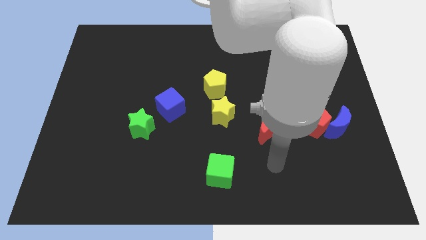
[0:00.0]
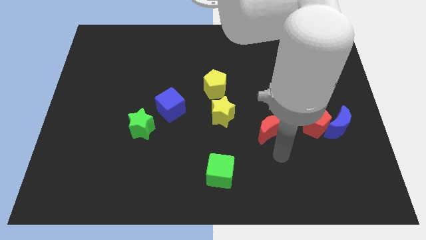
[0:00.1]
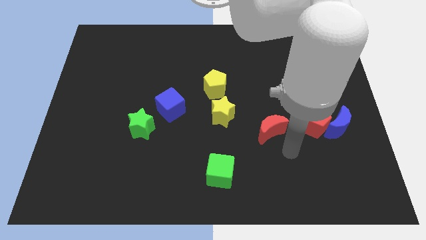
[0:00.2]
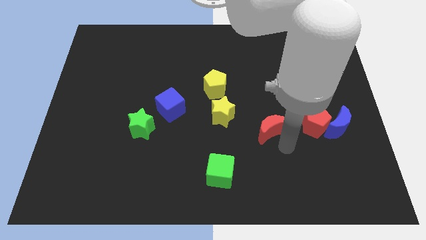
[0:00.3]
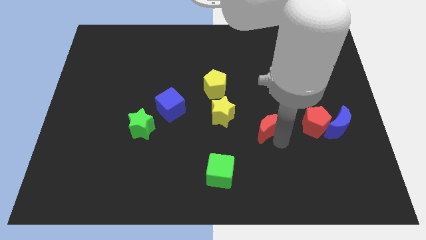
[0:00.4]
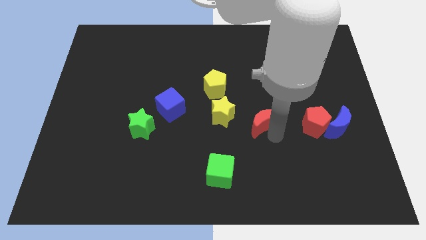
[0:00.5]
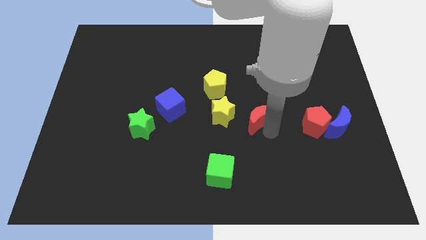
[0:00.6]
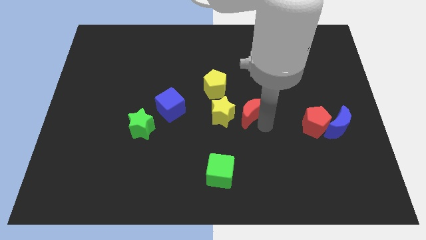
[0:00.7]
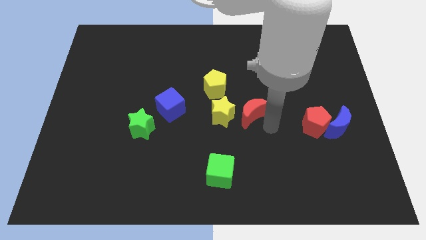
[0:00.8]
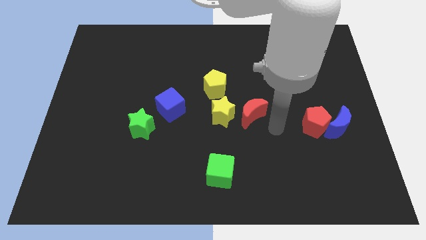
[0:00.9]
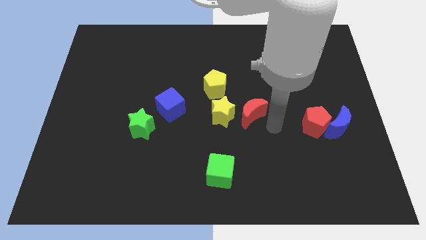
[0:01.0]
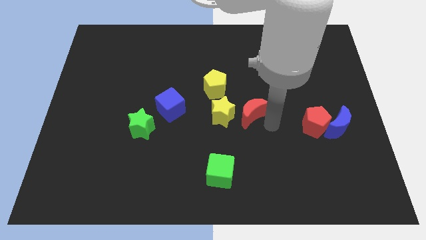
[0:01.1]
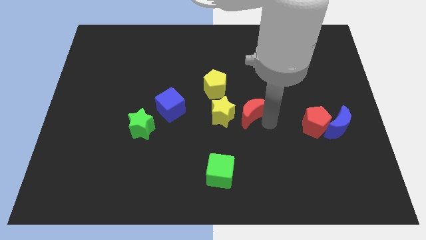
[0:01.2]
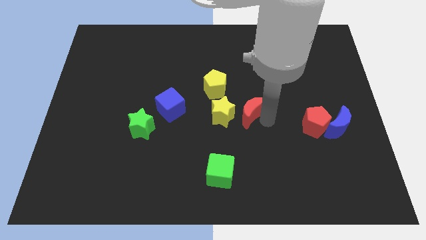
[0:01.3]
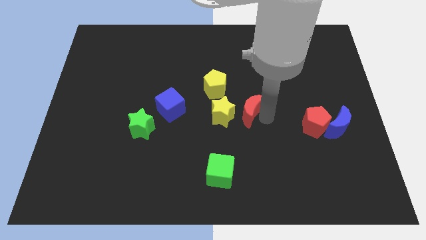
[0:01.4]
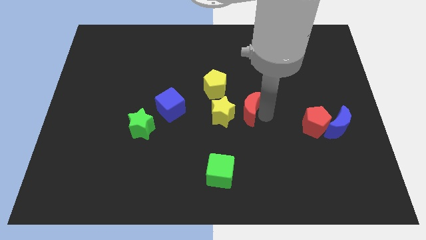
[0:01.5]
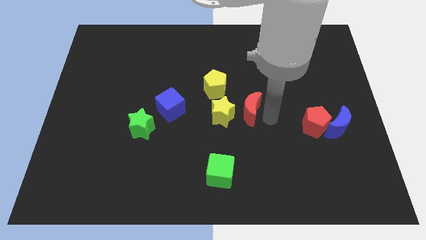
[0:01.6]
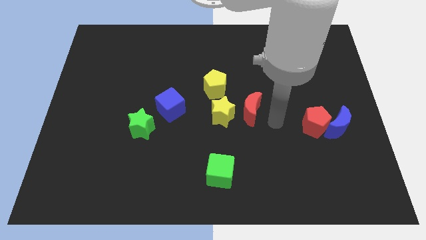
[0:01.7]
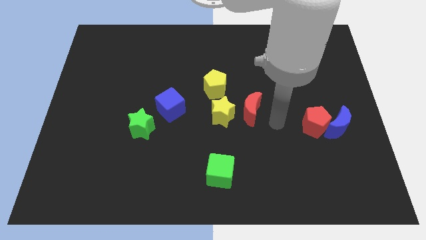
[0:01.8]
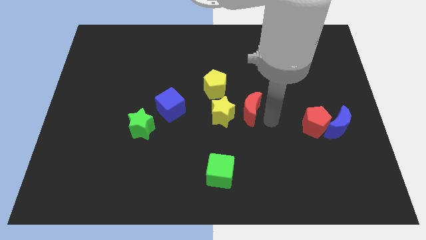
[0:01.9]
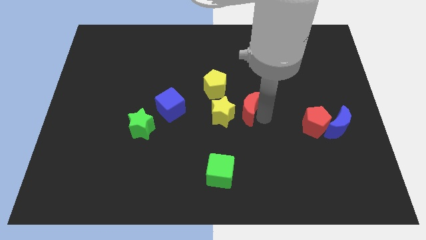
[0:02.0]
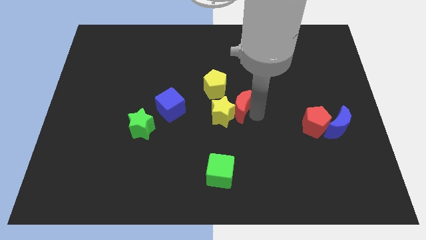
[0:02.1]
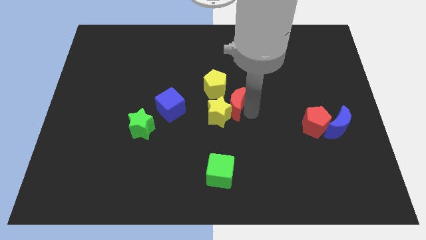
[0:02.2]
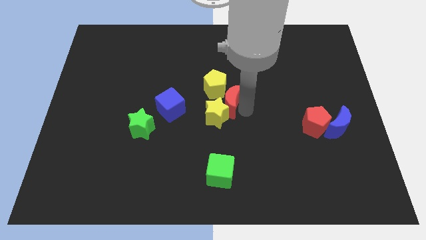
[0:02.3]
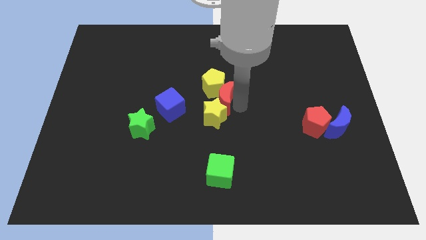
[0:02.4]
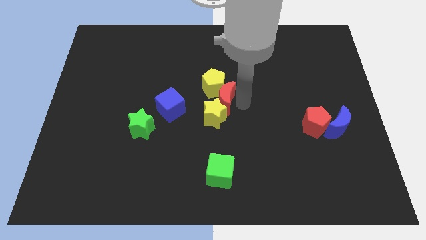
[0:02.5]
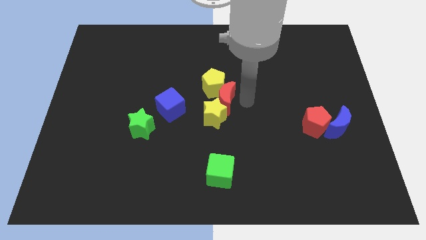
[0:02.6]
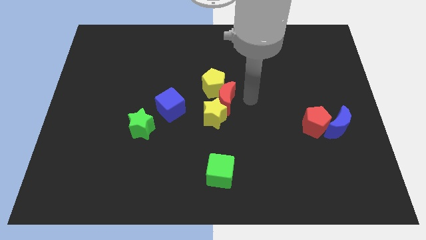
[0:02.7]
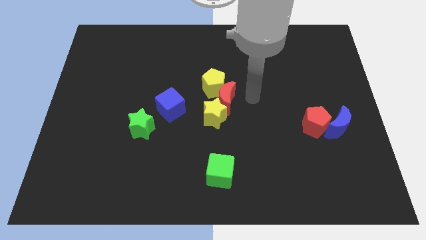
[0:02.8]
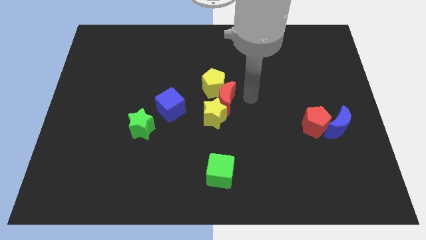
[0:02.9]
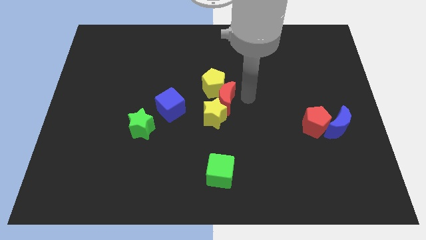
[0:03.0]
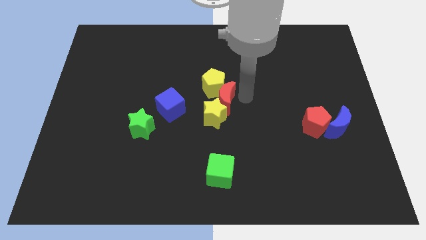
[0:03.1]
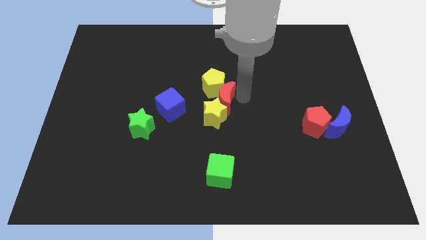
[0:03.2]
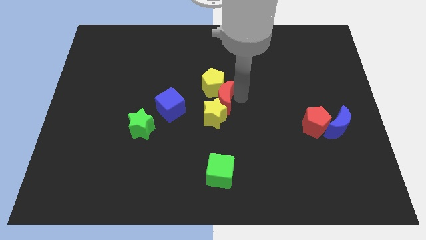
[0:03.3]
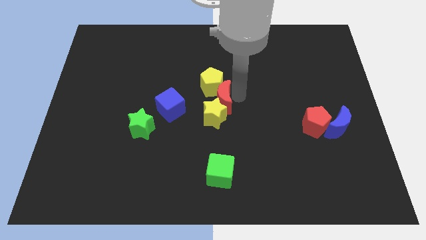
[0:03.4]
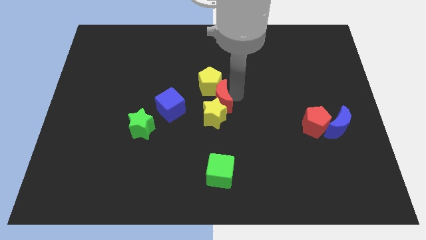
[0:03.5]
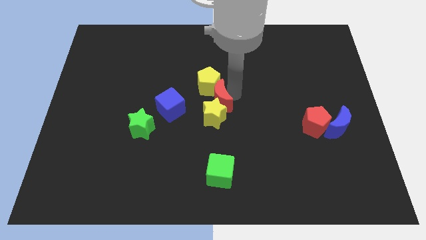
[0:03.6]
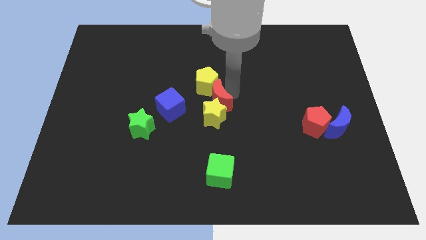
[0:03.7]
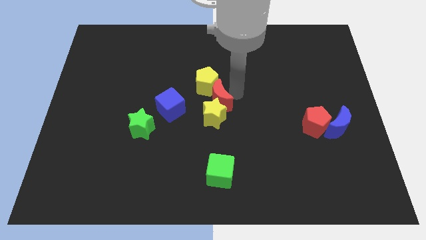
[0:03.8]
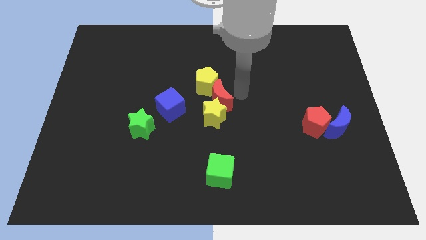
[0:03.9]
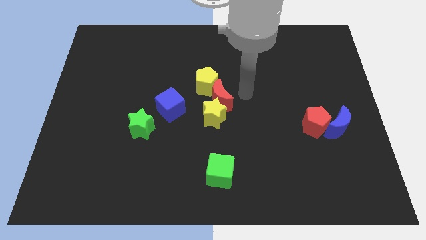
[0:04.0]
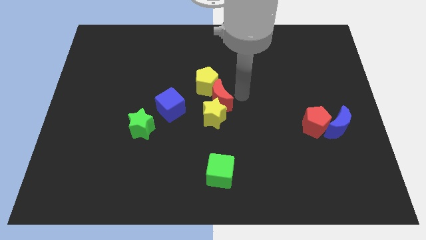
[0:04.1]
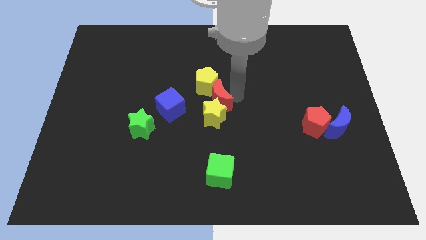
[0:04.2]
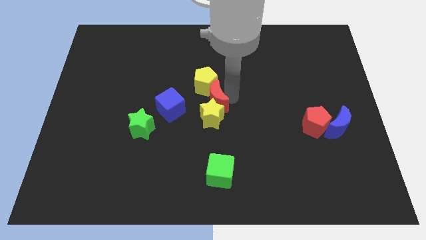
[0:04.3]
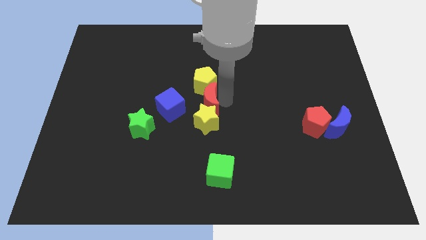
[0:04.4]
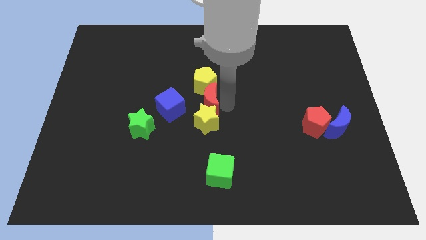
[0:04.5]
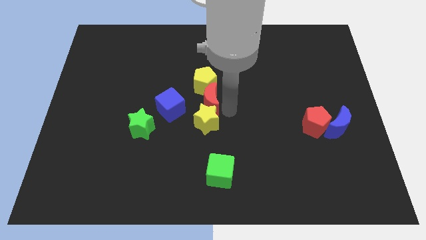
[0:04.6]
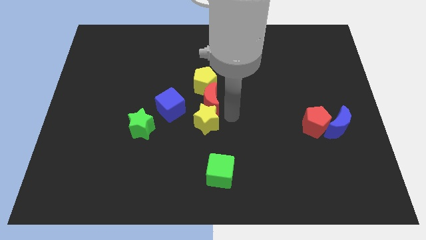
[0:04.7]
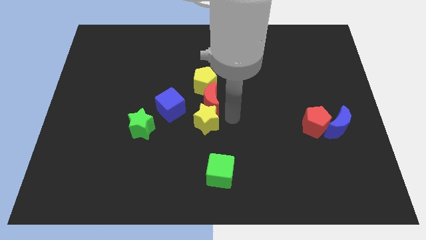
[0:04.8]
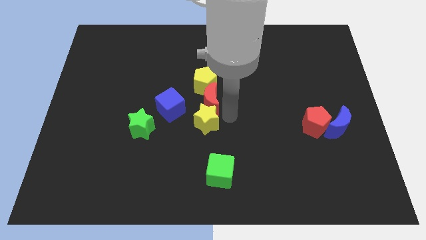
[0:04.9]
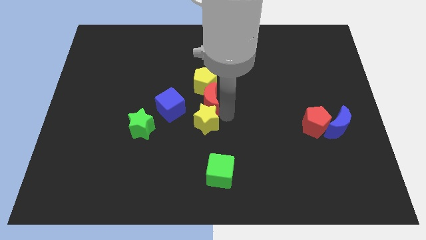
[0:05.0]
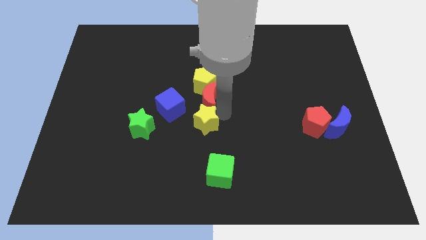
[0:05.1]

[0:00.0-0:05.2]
put the red moon to the top right side of the blue cube

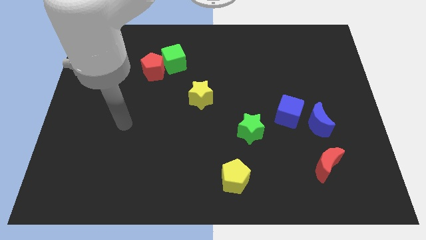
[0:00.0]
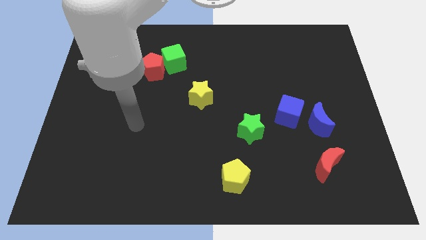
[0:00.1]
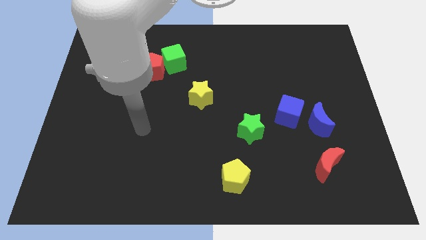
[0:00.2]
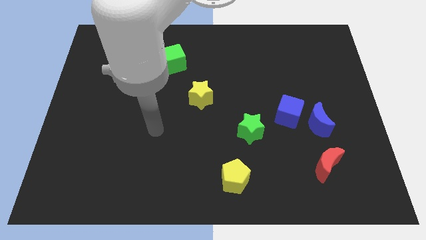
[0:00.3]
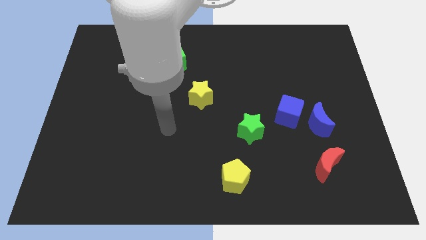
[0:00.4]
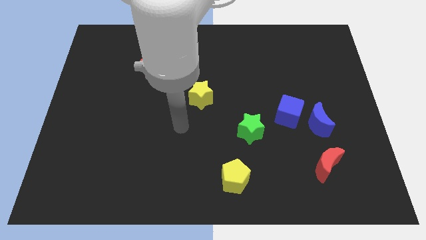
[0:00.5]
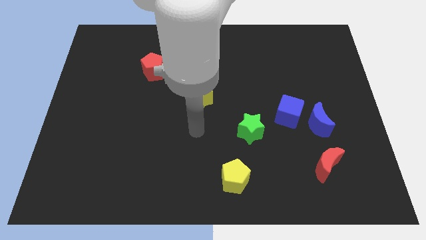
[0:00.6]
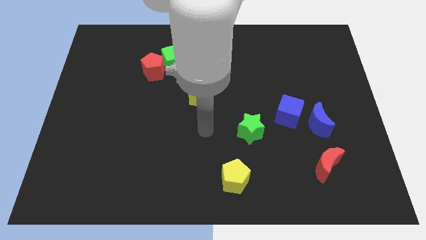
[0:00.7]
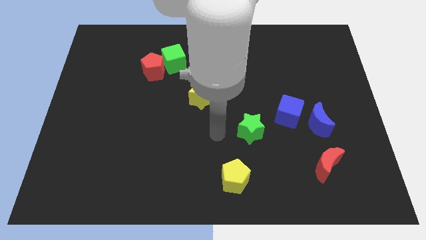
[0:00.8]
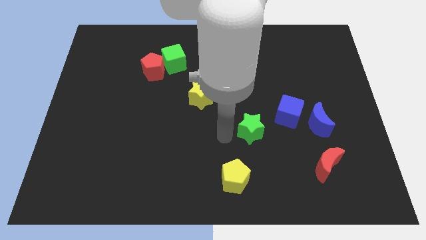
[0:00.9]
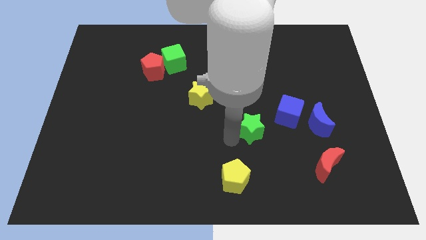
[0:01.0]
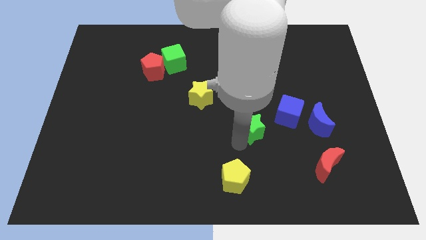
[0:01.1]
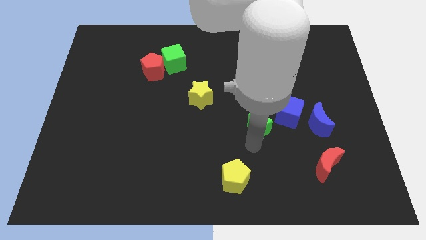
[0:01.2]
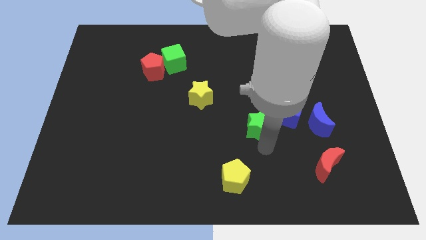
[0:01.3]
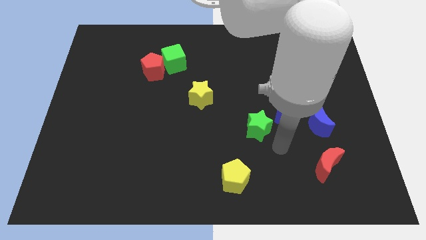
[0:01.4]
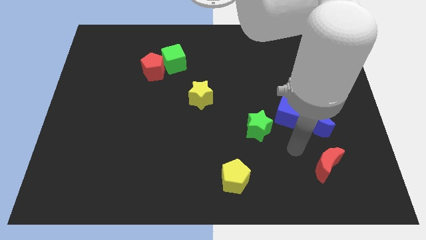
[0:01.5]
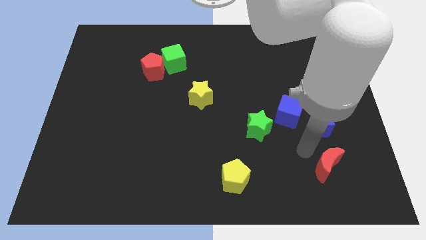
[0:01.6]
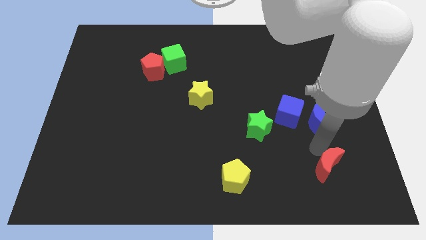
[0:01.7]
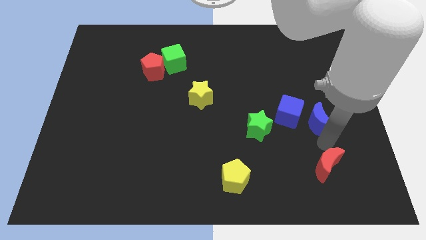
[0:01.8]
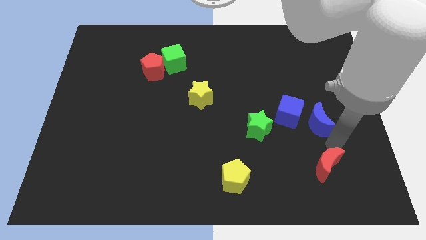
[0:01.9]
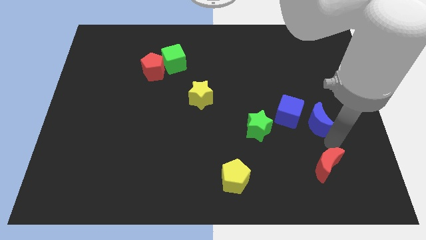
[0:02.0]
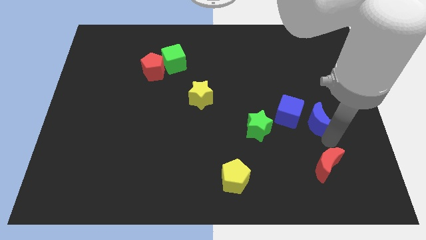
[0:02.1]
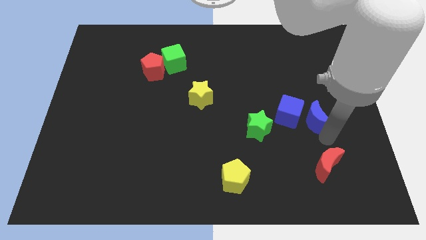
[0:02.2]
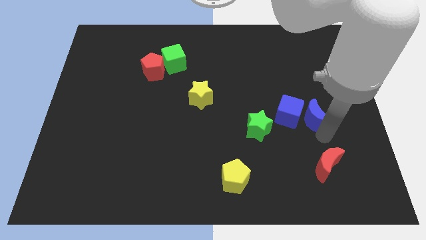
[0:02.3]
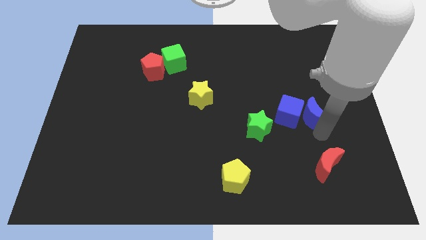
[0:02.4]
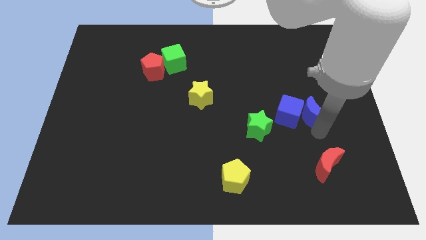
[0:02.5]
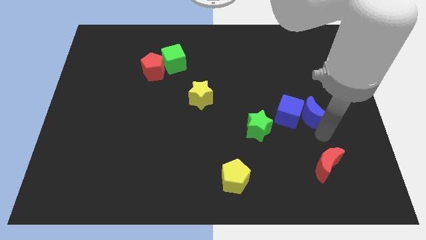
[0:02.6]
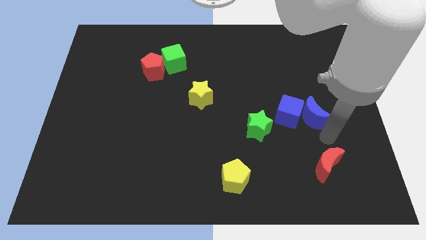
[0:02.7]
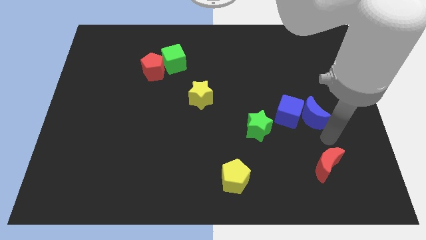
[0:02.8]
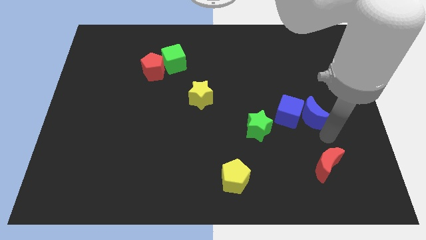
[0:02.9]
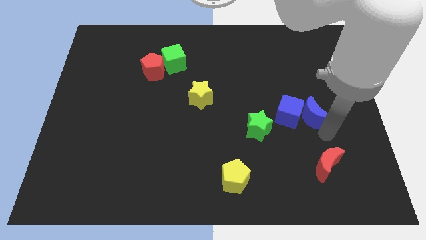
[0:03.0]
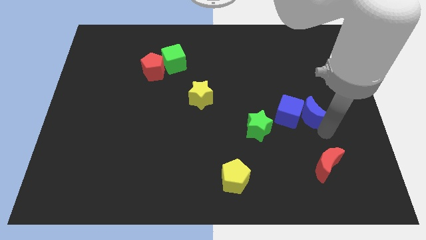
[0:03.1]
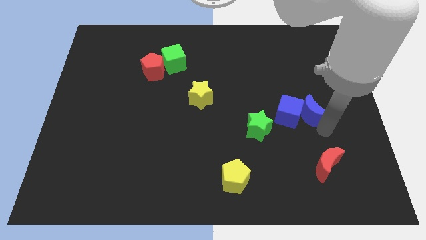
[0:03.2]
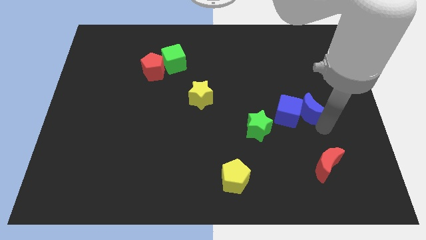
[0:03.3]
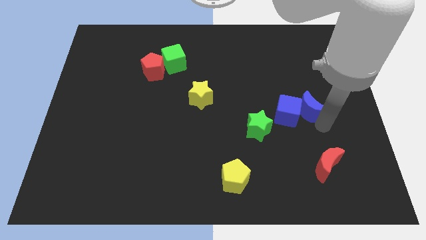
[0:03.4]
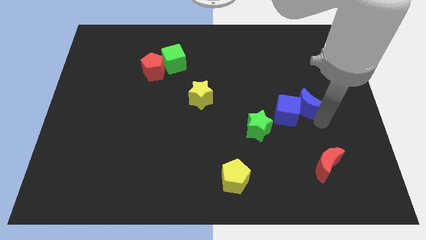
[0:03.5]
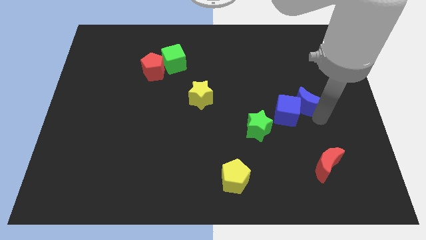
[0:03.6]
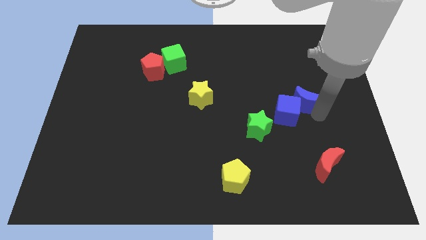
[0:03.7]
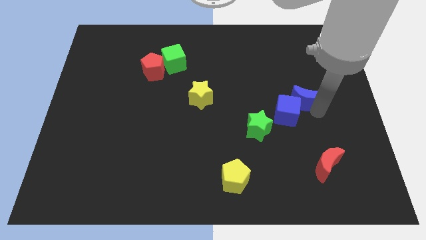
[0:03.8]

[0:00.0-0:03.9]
slide the blue moon above the blue cube
